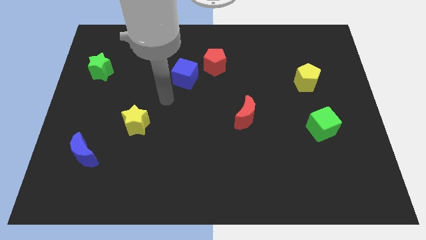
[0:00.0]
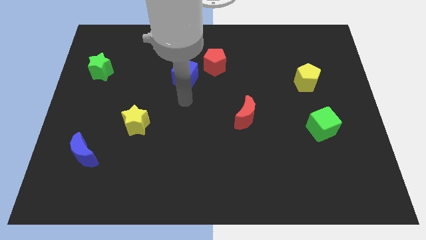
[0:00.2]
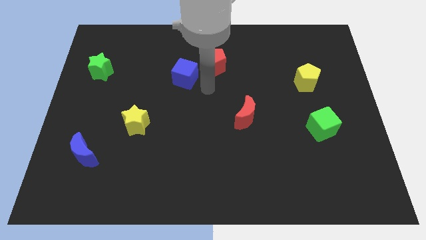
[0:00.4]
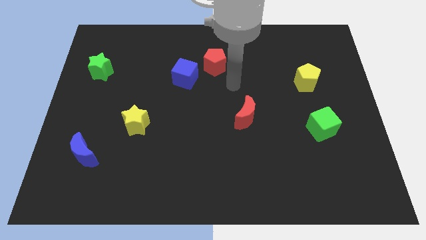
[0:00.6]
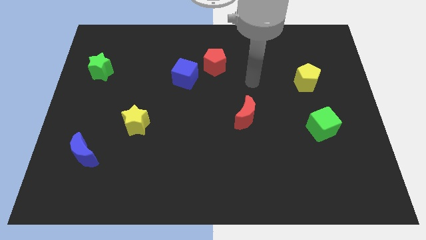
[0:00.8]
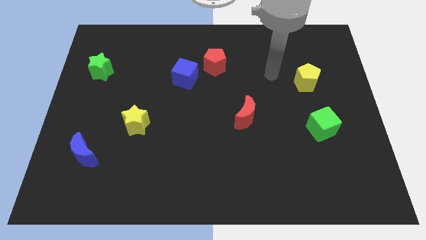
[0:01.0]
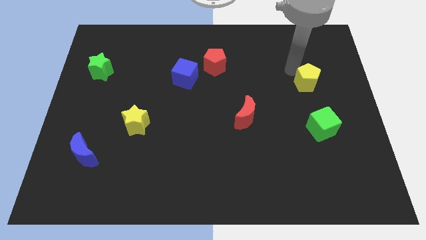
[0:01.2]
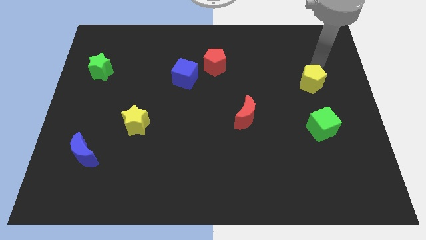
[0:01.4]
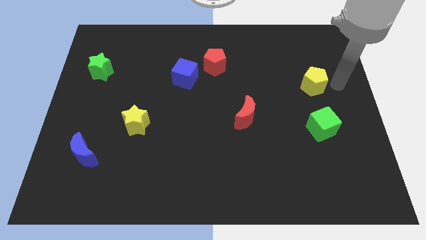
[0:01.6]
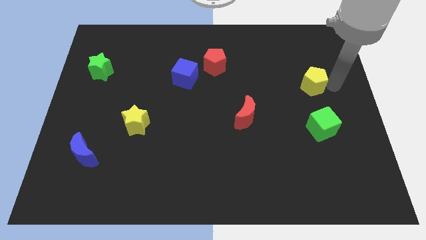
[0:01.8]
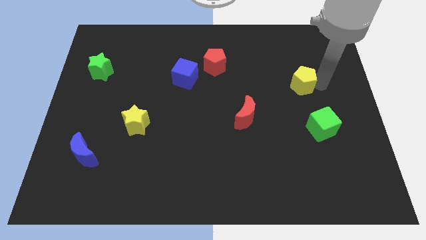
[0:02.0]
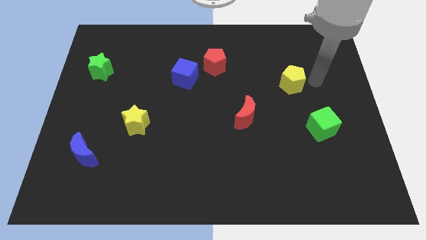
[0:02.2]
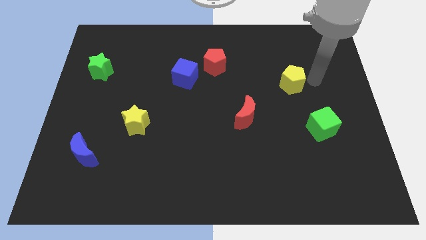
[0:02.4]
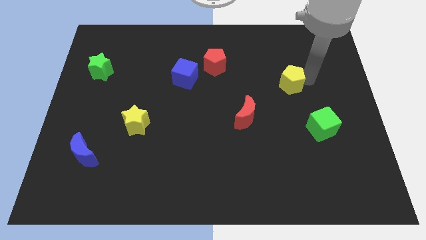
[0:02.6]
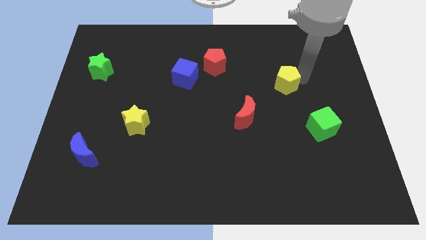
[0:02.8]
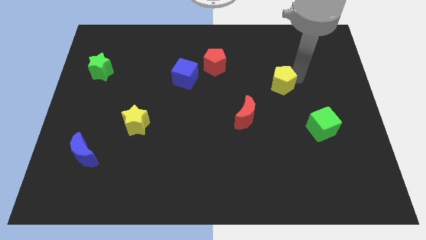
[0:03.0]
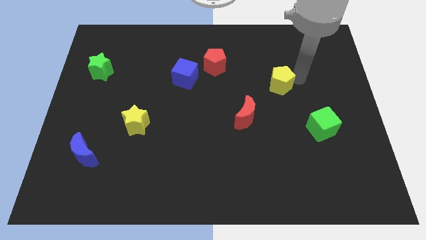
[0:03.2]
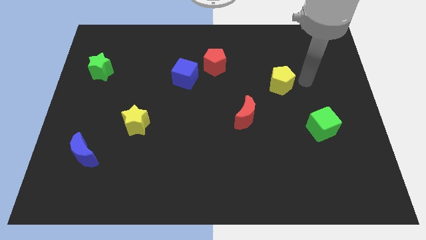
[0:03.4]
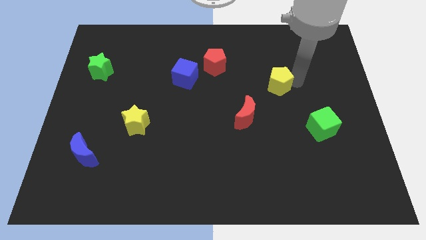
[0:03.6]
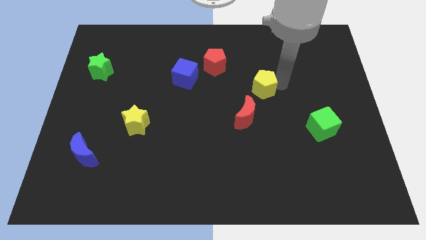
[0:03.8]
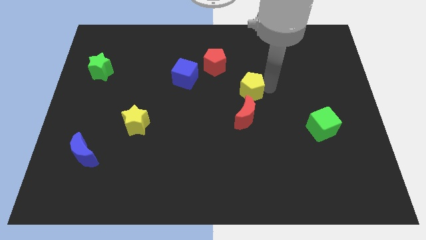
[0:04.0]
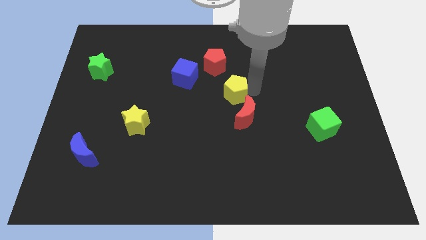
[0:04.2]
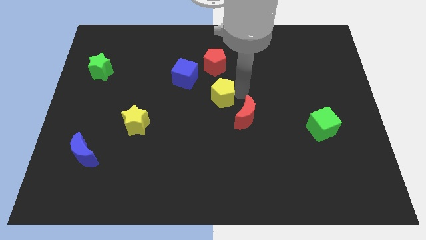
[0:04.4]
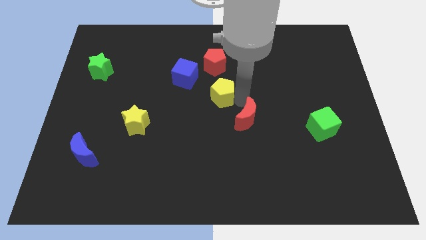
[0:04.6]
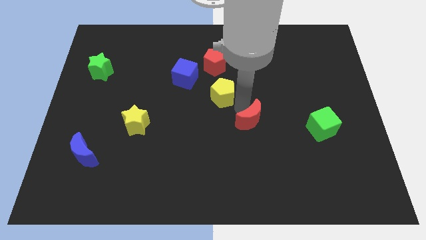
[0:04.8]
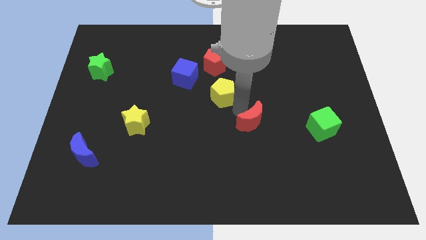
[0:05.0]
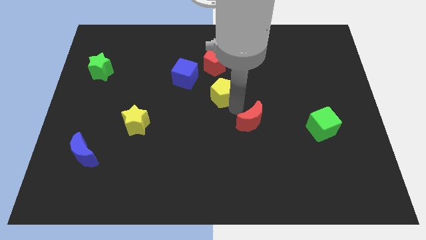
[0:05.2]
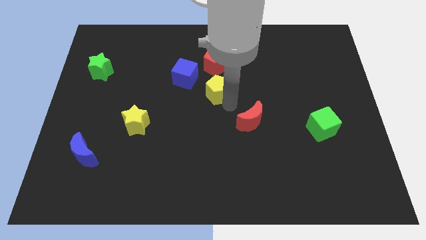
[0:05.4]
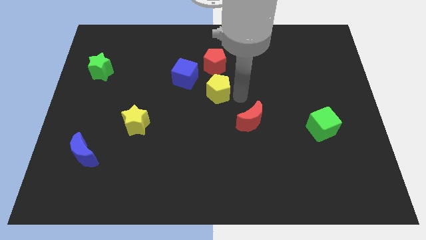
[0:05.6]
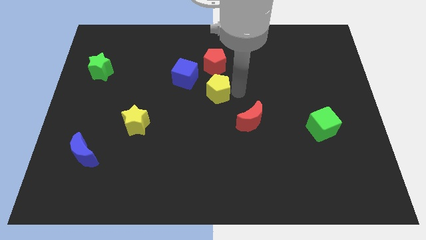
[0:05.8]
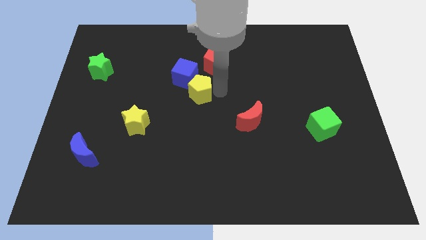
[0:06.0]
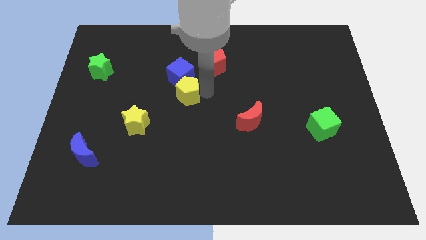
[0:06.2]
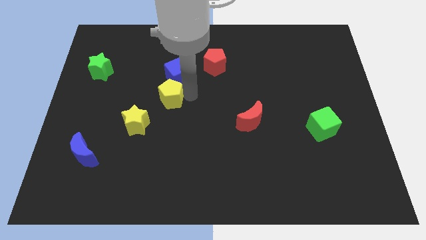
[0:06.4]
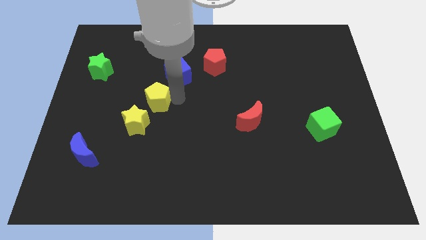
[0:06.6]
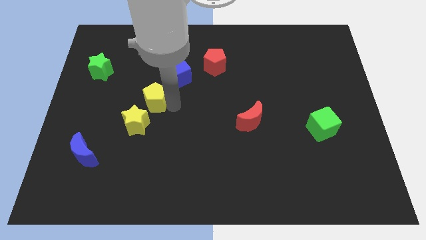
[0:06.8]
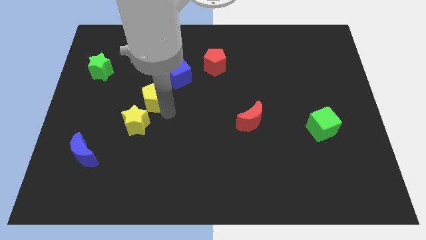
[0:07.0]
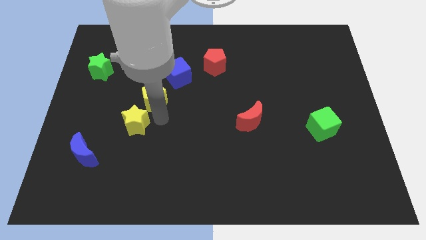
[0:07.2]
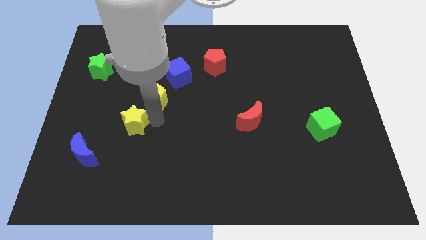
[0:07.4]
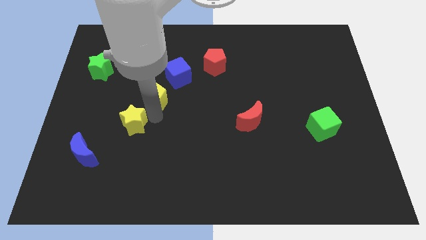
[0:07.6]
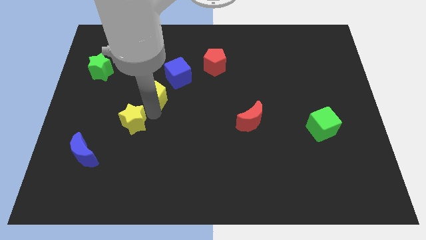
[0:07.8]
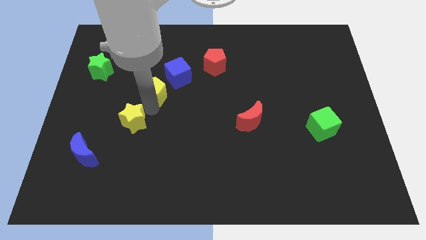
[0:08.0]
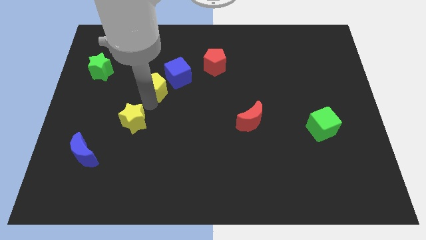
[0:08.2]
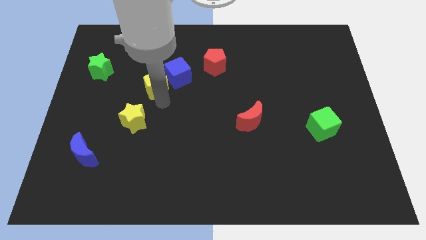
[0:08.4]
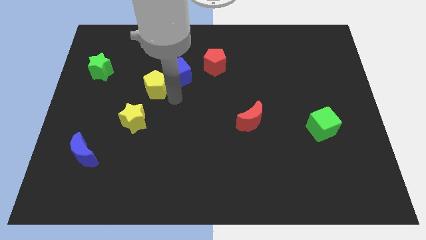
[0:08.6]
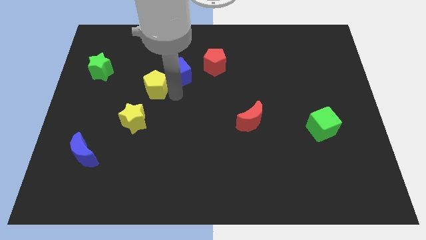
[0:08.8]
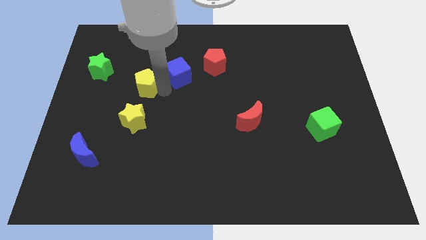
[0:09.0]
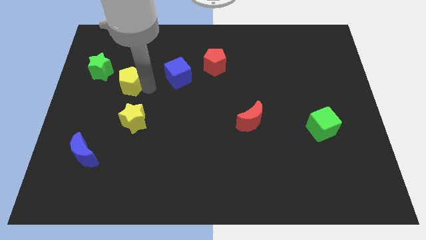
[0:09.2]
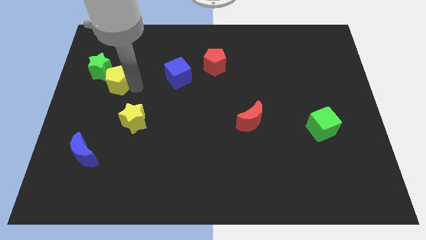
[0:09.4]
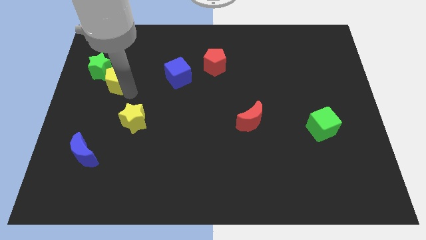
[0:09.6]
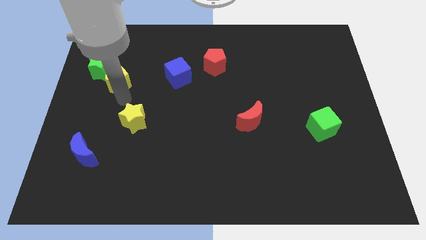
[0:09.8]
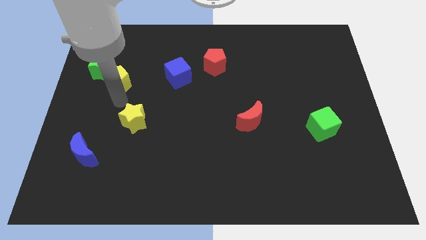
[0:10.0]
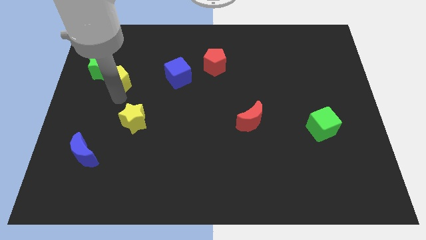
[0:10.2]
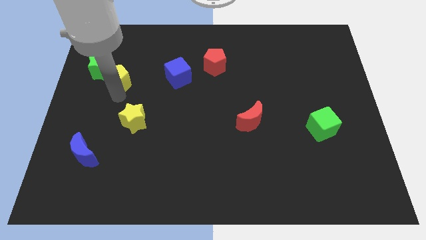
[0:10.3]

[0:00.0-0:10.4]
put the yellow pentagon to the green star

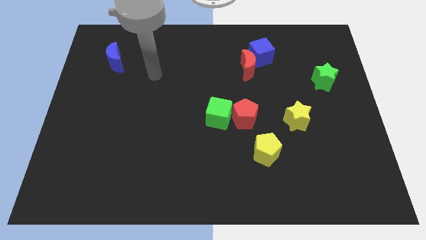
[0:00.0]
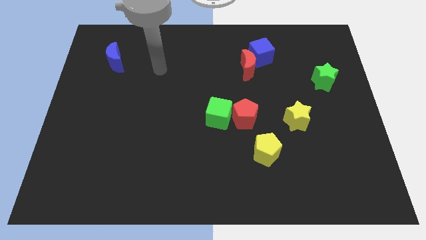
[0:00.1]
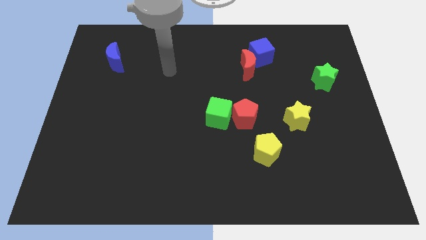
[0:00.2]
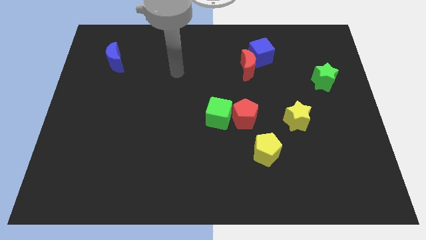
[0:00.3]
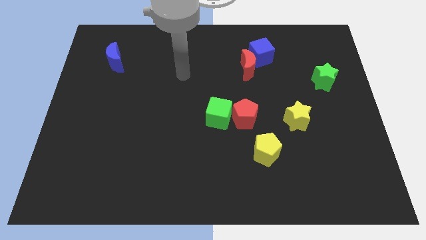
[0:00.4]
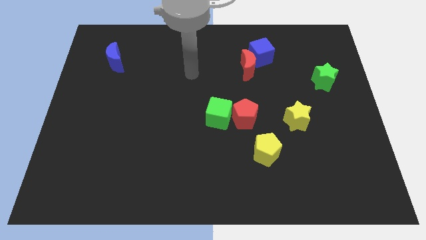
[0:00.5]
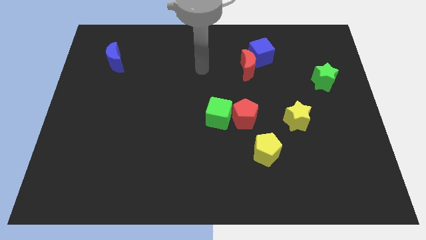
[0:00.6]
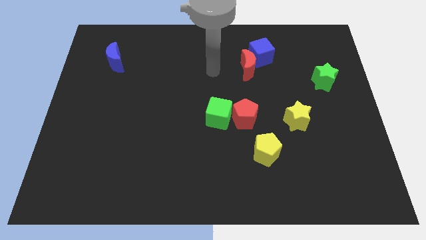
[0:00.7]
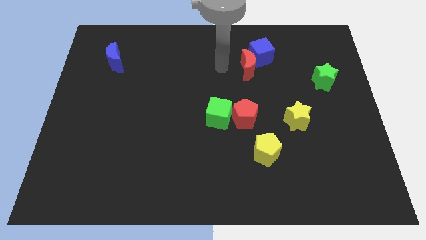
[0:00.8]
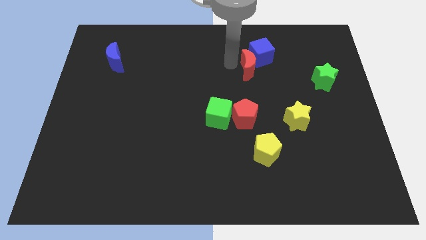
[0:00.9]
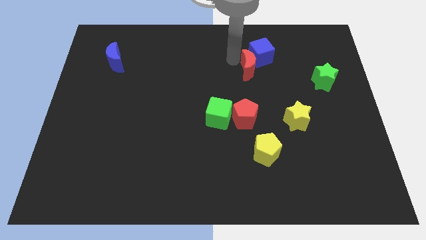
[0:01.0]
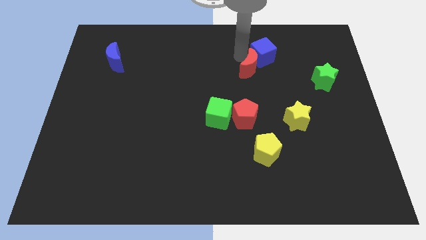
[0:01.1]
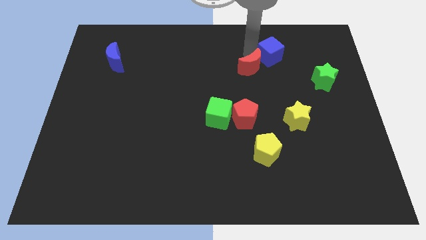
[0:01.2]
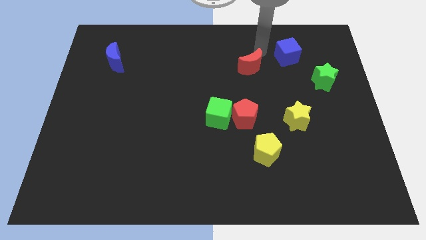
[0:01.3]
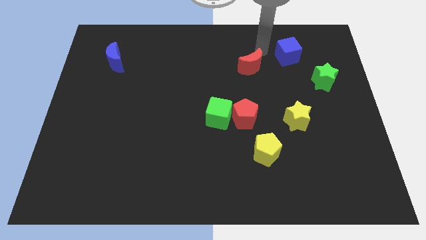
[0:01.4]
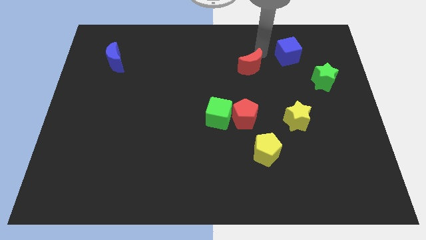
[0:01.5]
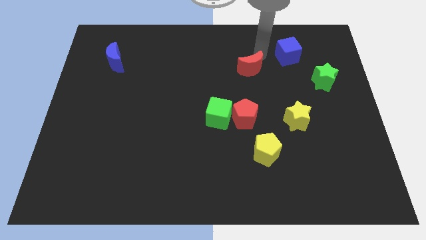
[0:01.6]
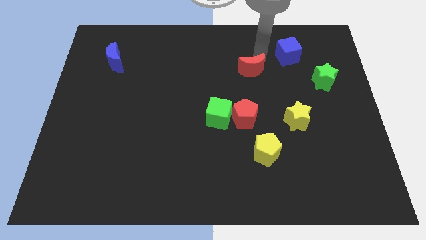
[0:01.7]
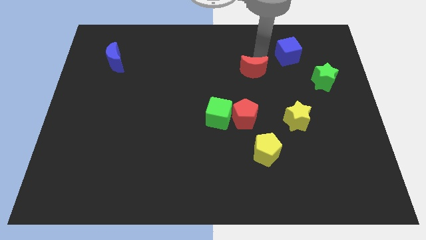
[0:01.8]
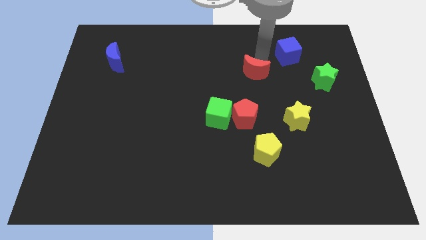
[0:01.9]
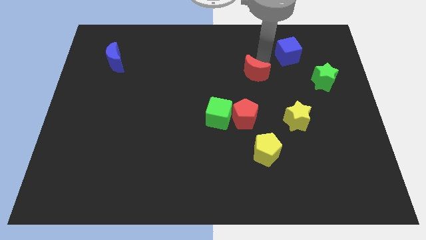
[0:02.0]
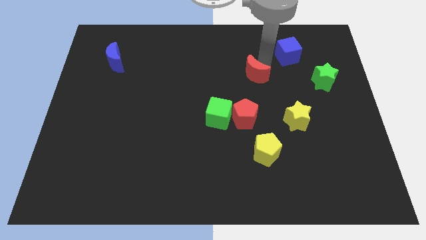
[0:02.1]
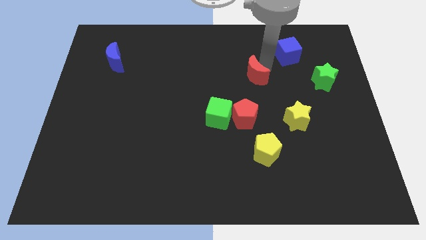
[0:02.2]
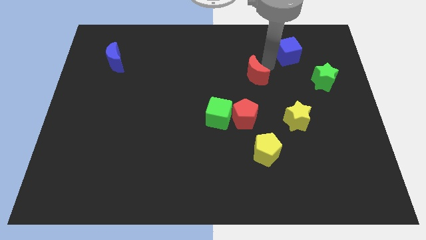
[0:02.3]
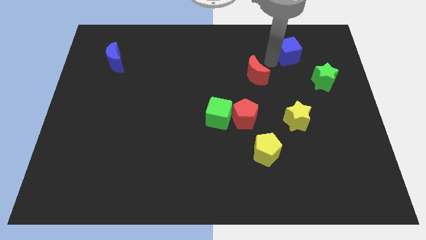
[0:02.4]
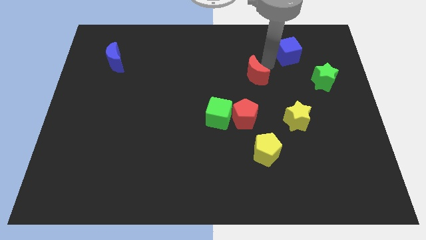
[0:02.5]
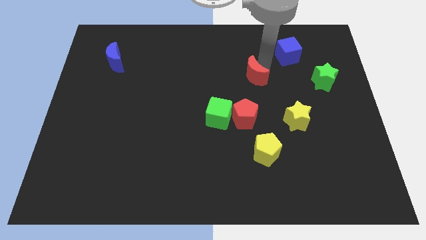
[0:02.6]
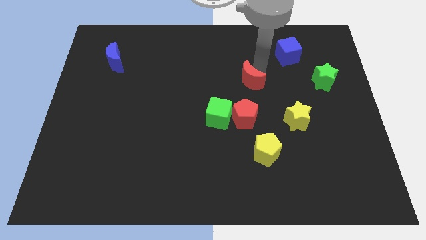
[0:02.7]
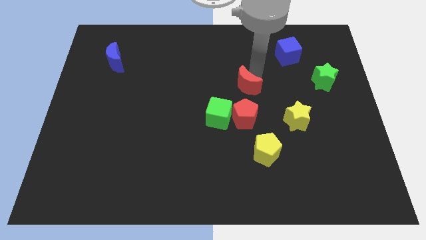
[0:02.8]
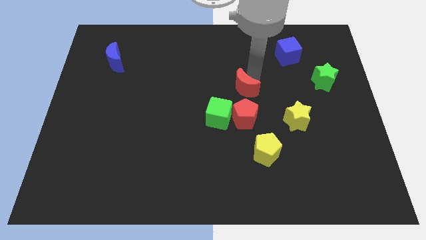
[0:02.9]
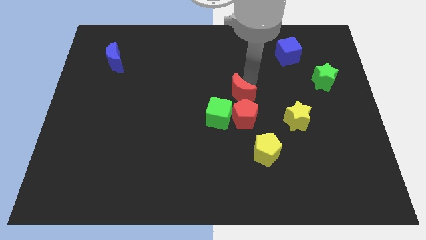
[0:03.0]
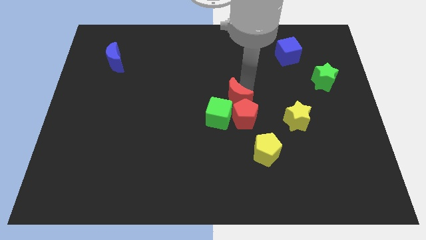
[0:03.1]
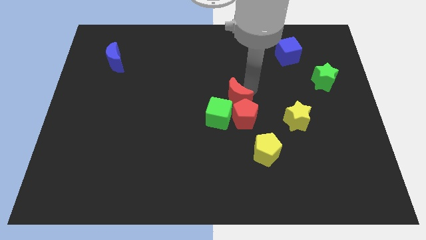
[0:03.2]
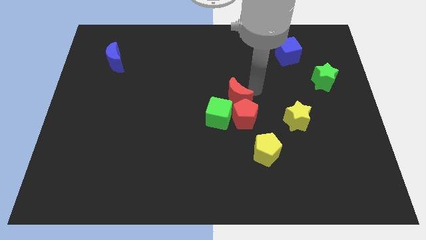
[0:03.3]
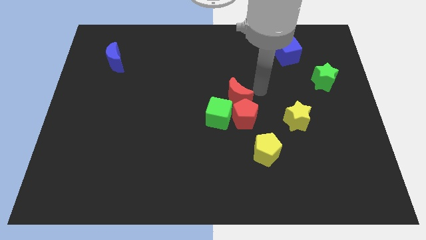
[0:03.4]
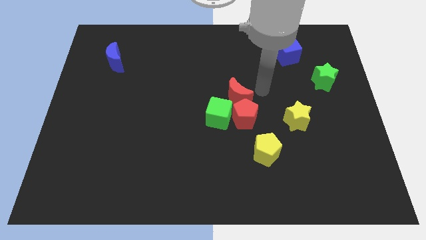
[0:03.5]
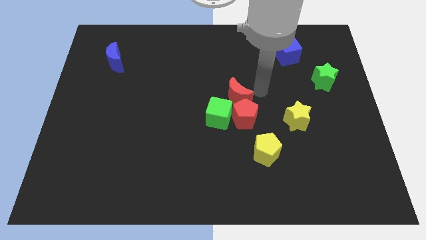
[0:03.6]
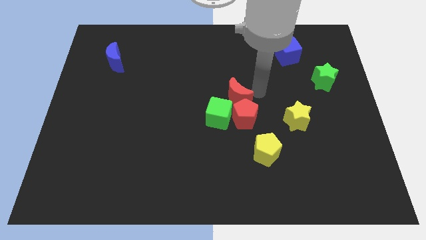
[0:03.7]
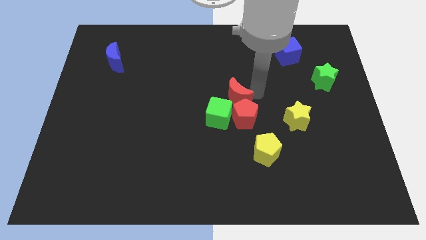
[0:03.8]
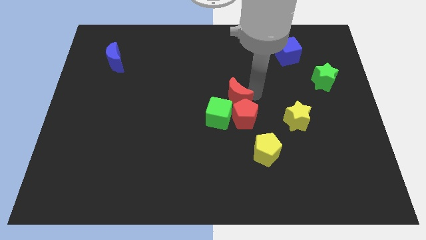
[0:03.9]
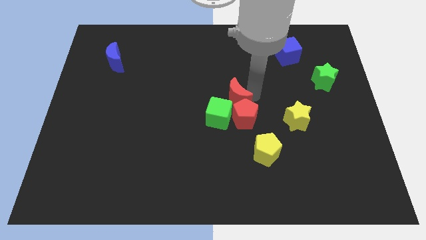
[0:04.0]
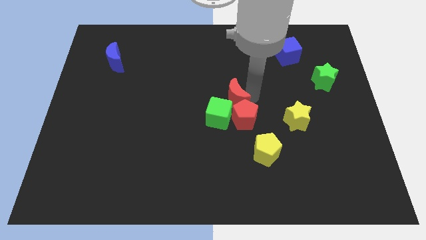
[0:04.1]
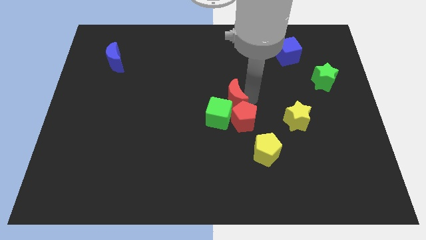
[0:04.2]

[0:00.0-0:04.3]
slide the red moon next to the green cube
